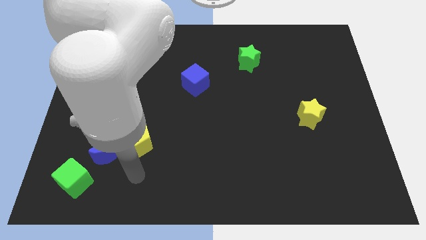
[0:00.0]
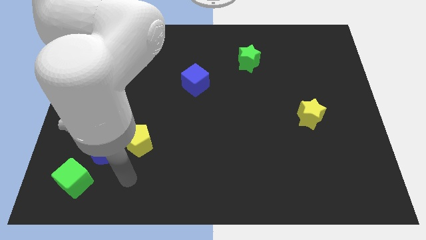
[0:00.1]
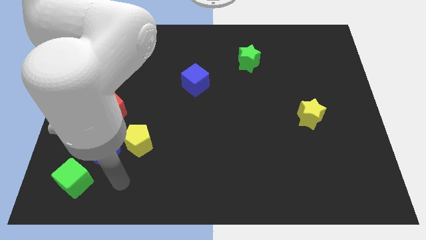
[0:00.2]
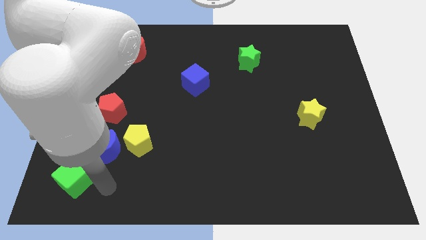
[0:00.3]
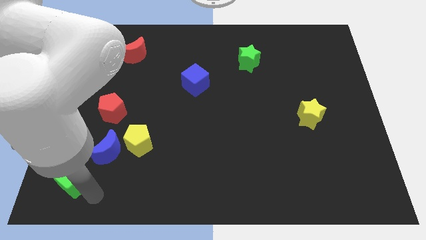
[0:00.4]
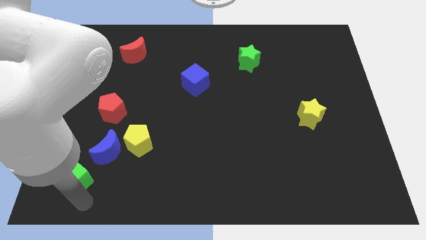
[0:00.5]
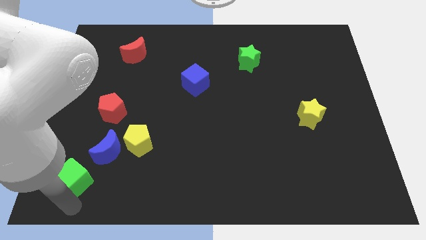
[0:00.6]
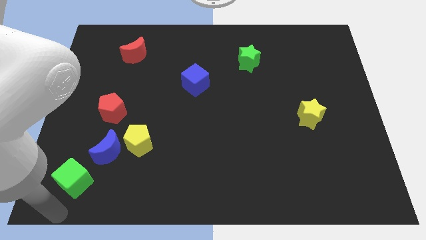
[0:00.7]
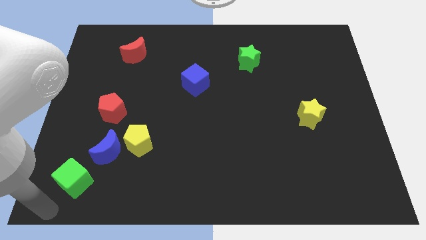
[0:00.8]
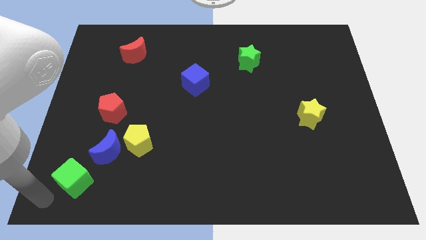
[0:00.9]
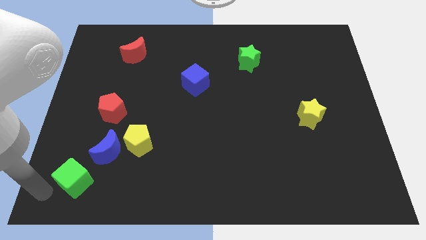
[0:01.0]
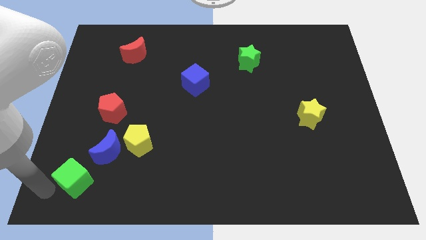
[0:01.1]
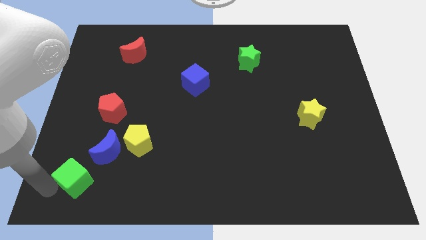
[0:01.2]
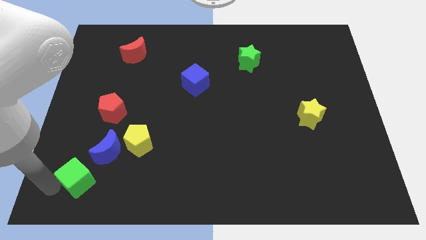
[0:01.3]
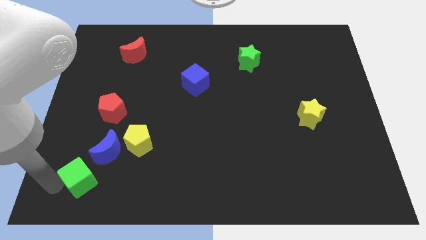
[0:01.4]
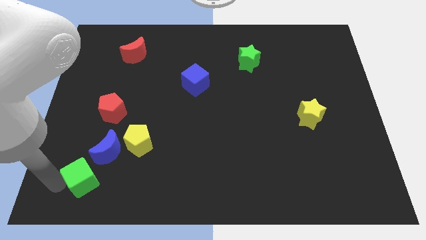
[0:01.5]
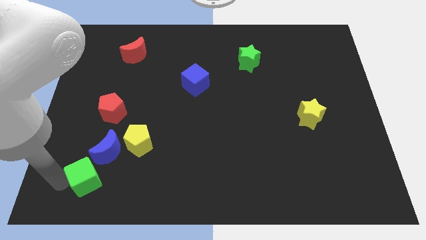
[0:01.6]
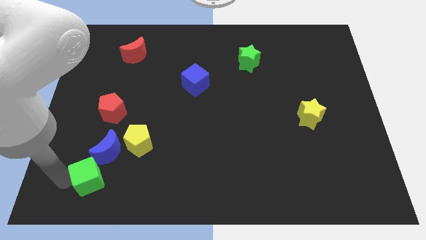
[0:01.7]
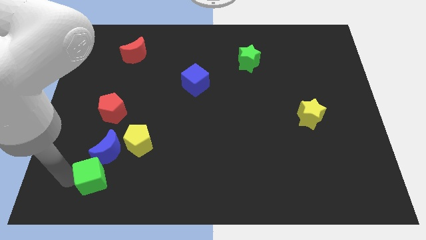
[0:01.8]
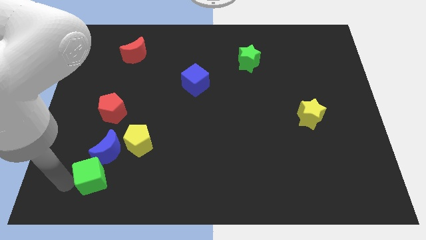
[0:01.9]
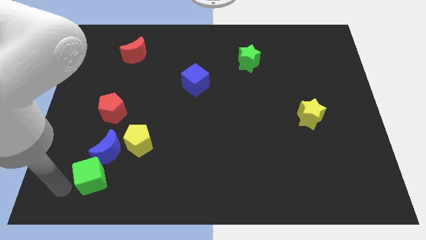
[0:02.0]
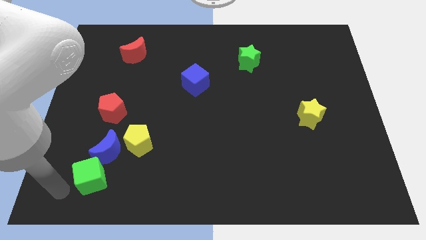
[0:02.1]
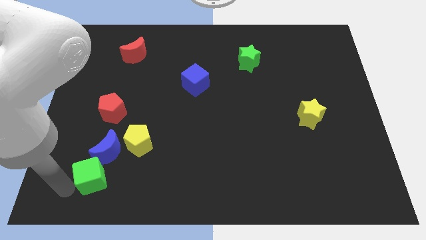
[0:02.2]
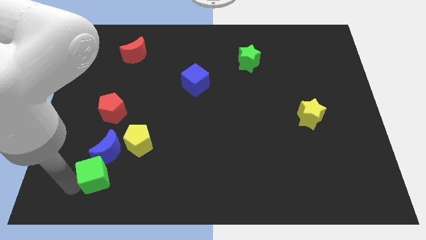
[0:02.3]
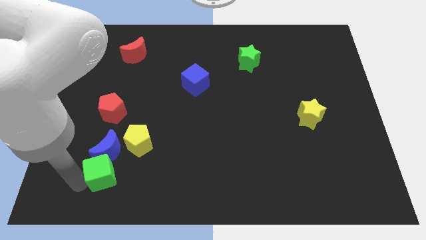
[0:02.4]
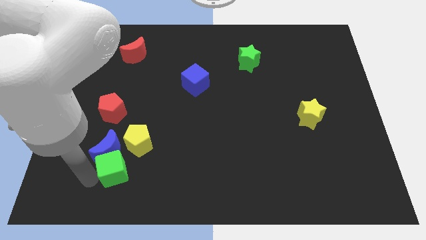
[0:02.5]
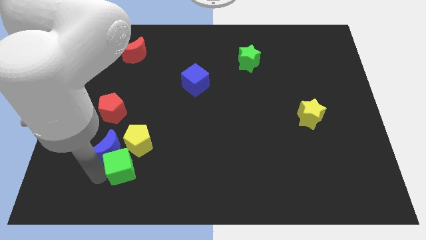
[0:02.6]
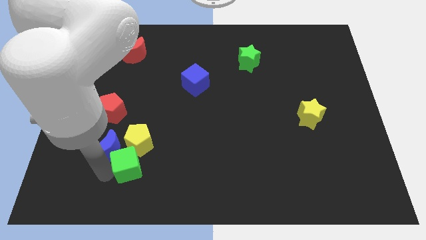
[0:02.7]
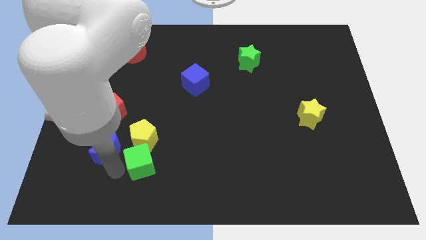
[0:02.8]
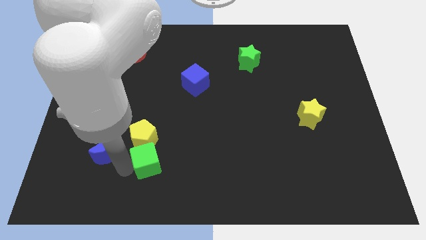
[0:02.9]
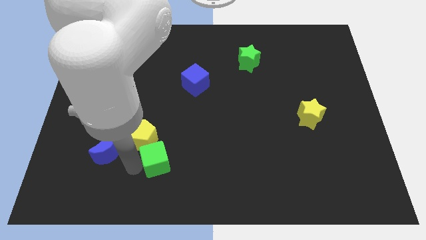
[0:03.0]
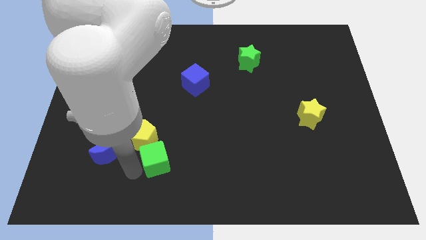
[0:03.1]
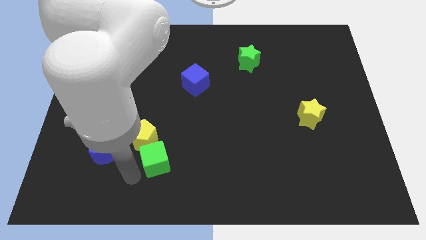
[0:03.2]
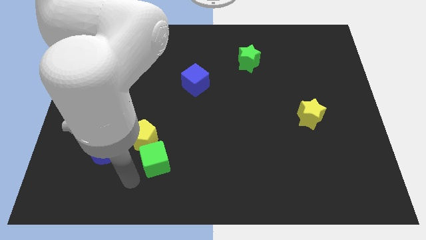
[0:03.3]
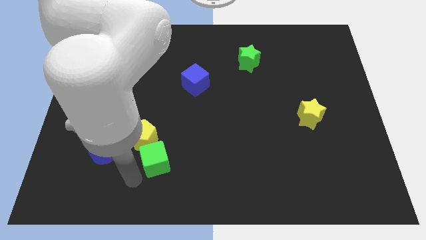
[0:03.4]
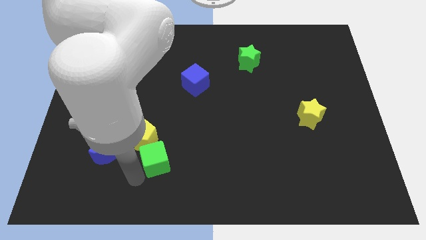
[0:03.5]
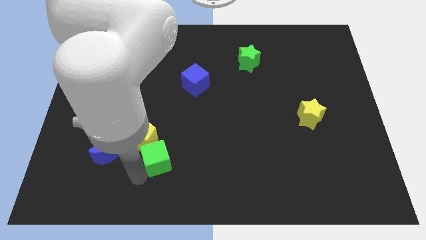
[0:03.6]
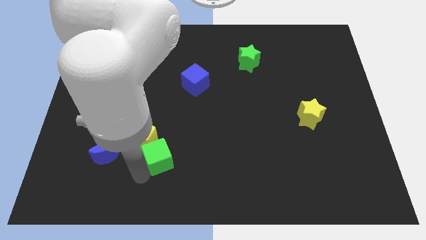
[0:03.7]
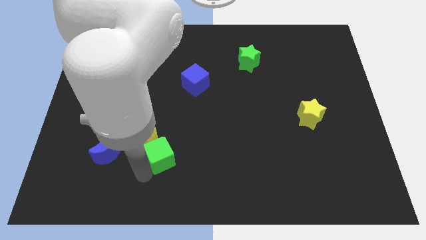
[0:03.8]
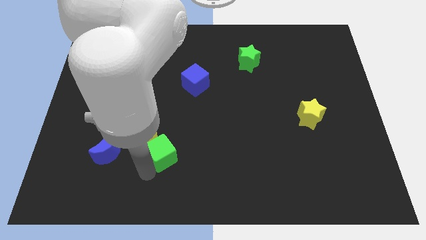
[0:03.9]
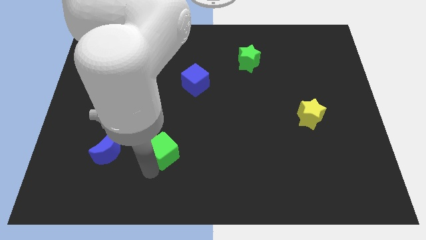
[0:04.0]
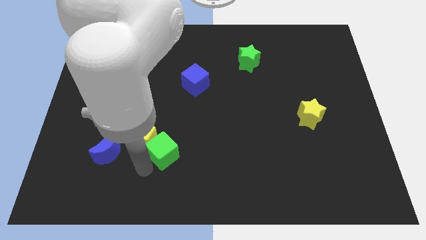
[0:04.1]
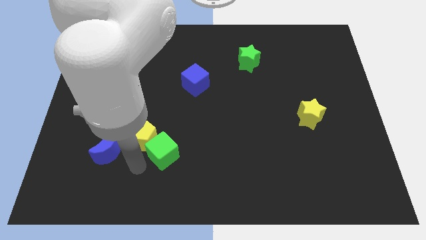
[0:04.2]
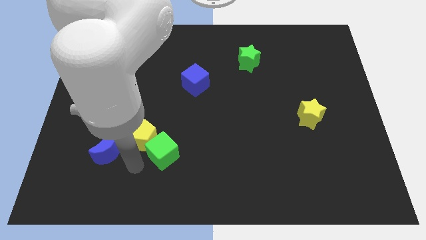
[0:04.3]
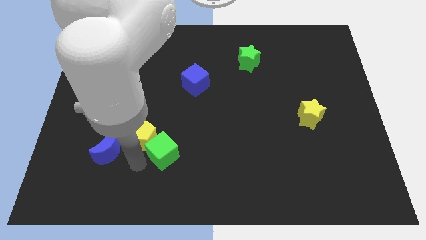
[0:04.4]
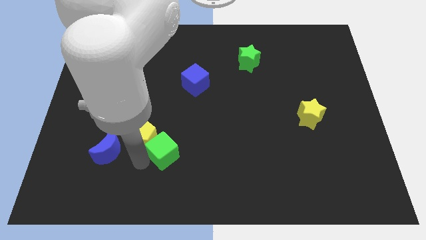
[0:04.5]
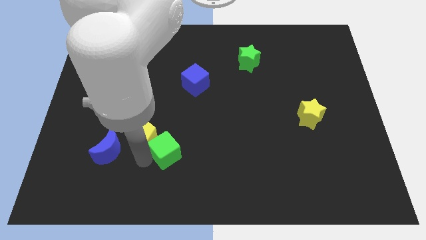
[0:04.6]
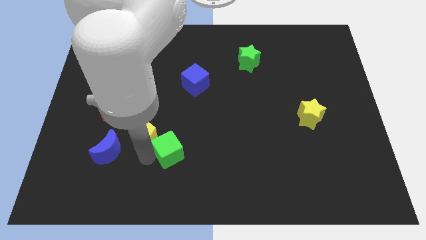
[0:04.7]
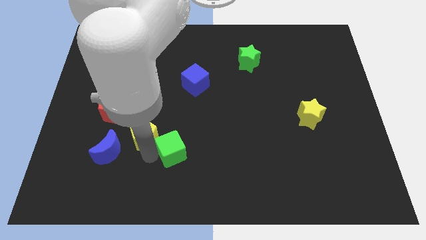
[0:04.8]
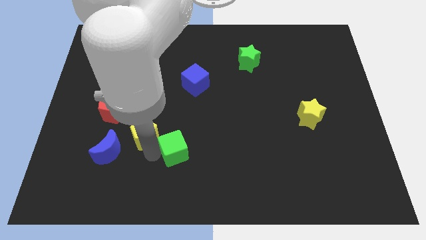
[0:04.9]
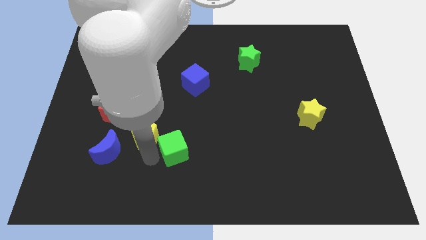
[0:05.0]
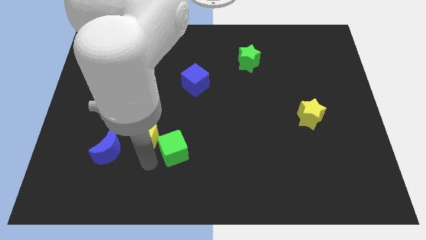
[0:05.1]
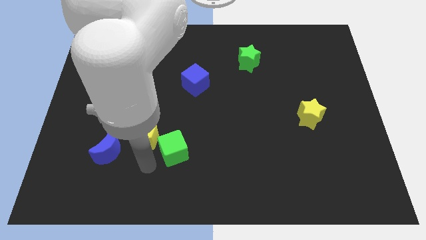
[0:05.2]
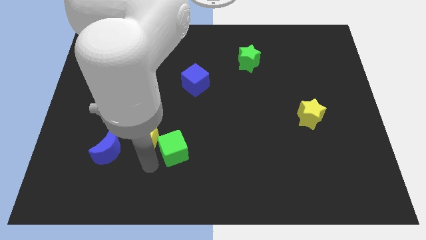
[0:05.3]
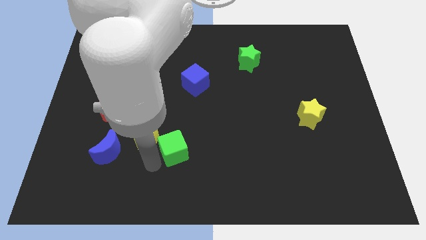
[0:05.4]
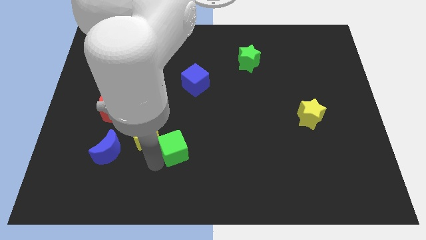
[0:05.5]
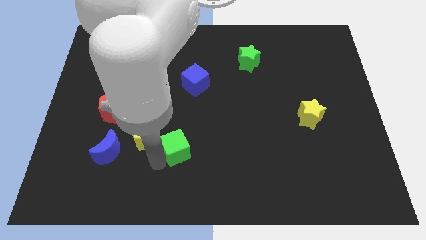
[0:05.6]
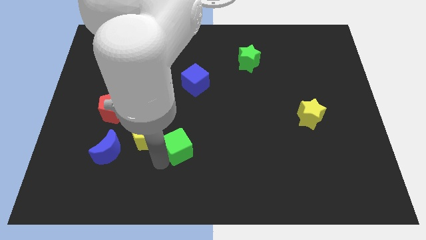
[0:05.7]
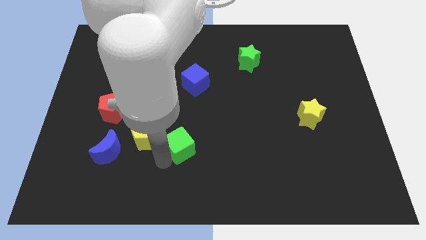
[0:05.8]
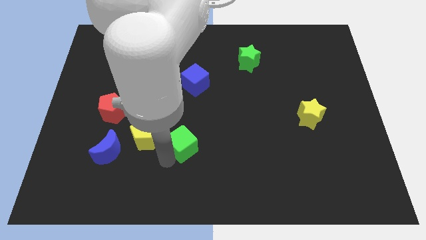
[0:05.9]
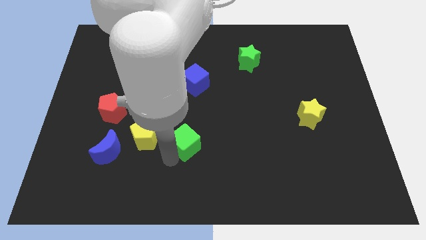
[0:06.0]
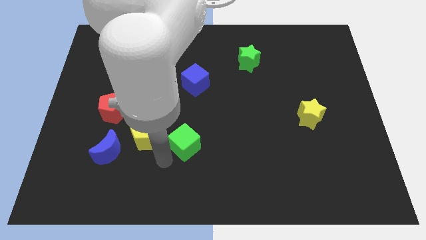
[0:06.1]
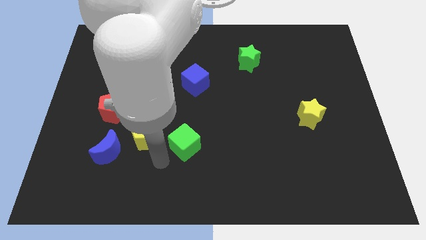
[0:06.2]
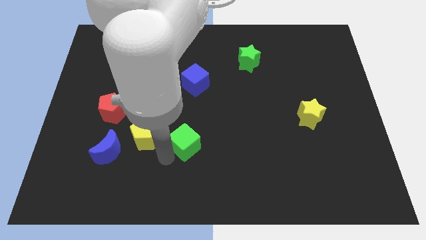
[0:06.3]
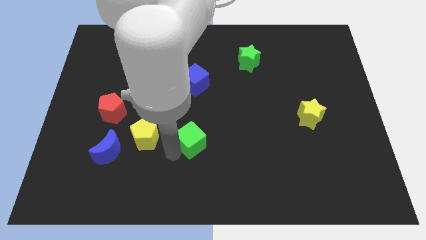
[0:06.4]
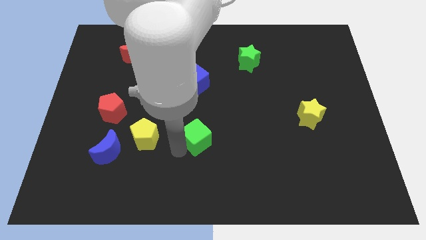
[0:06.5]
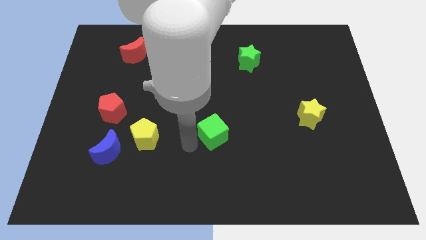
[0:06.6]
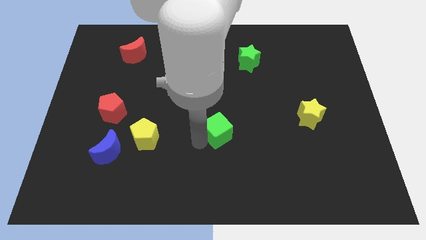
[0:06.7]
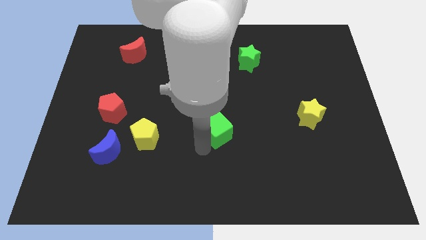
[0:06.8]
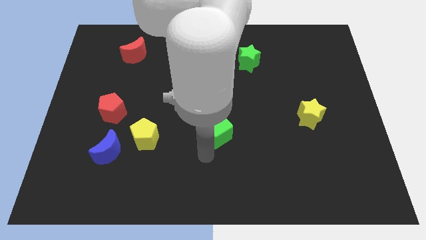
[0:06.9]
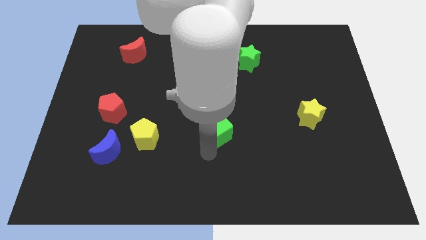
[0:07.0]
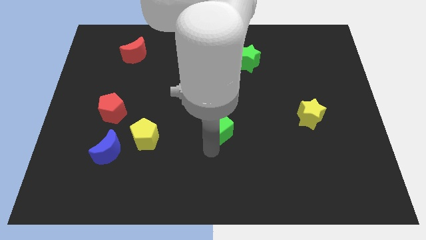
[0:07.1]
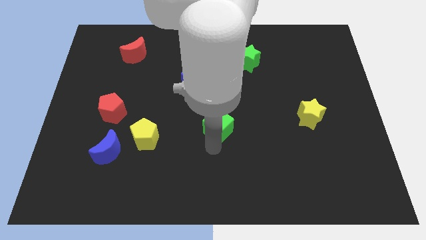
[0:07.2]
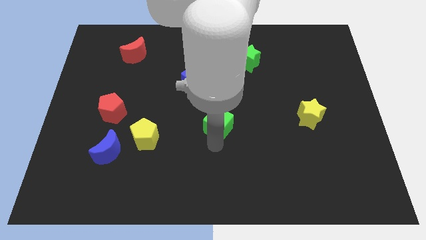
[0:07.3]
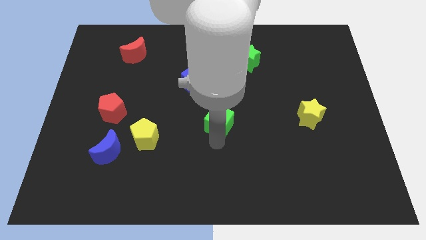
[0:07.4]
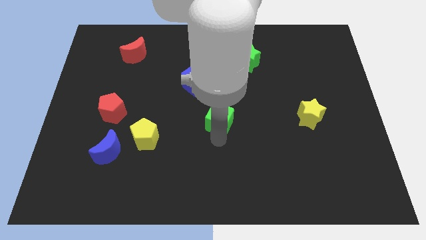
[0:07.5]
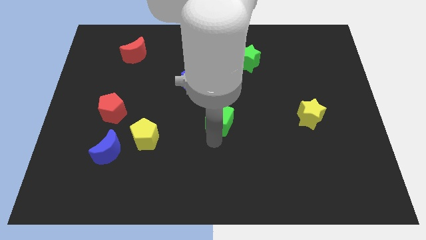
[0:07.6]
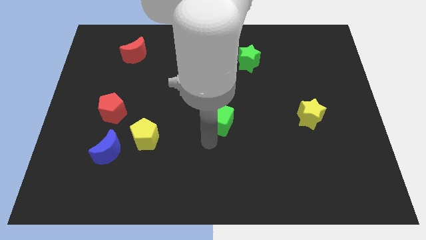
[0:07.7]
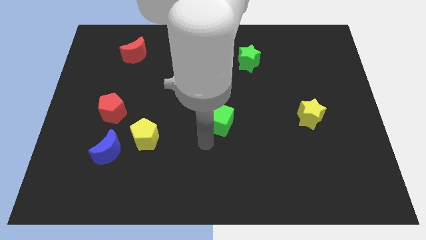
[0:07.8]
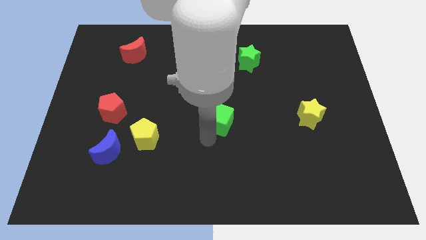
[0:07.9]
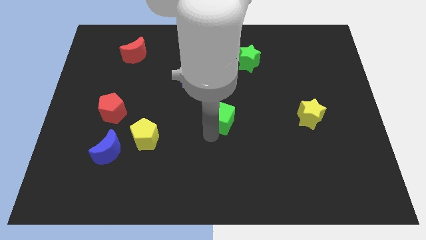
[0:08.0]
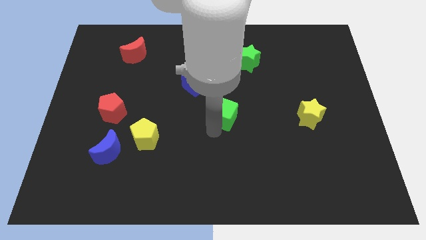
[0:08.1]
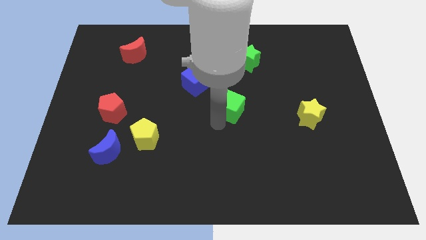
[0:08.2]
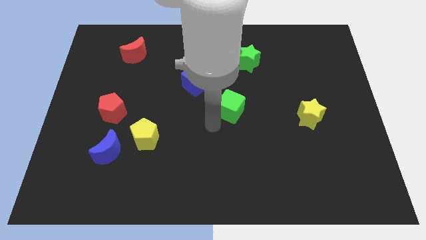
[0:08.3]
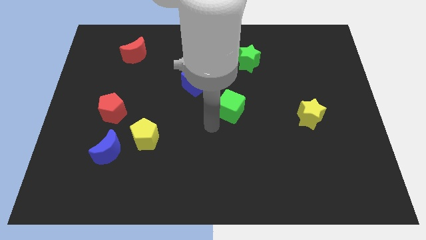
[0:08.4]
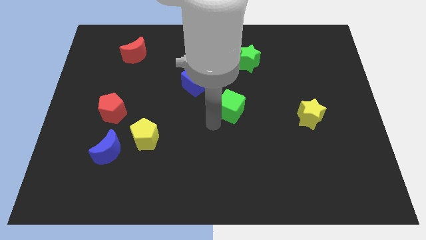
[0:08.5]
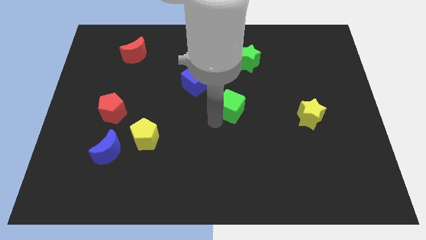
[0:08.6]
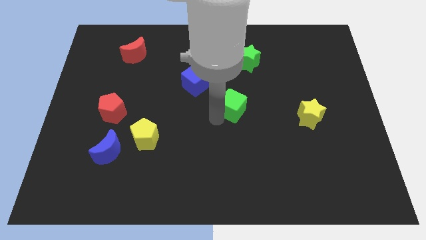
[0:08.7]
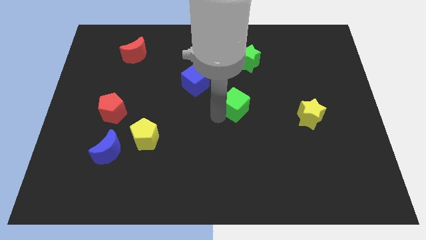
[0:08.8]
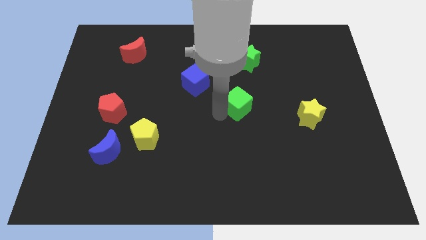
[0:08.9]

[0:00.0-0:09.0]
slide the green cube to the bottom side of the green star
